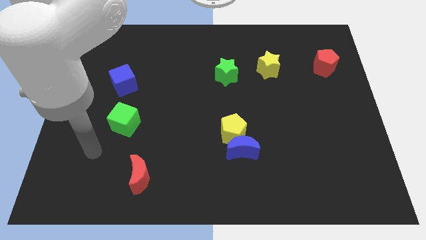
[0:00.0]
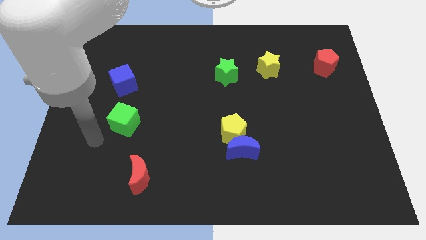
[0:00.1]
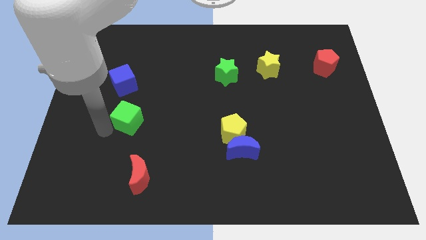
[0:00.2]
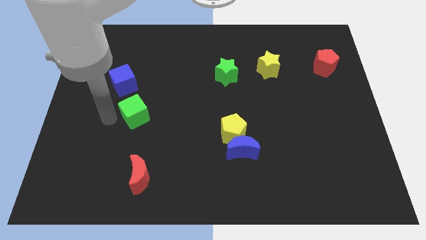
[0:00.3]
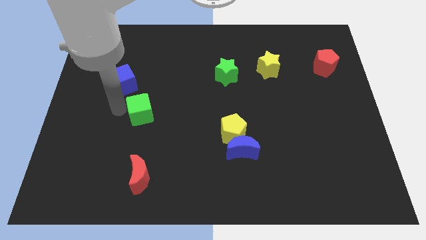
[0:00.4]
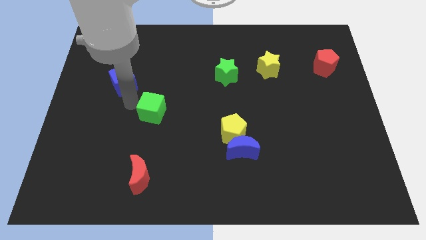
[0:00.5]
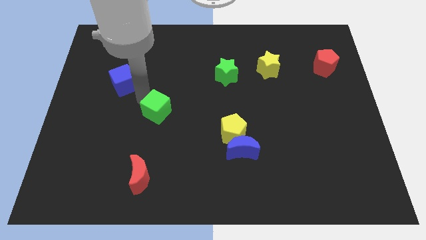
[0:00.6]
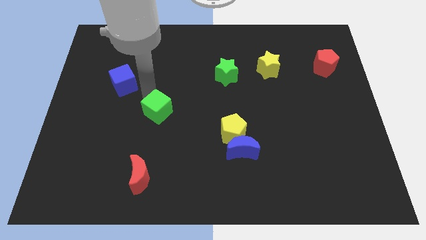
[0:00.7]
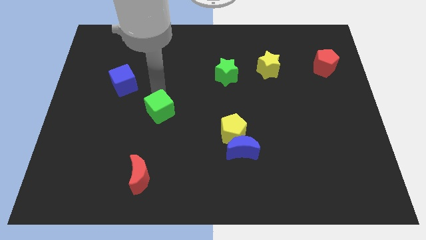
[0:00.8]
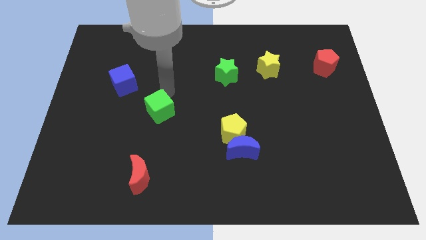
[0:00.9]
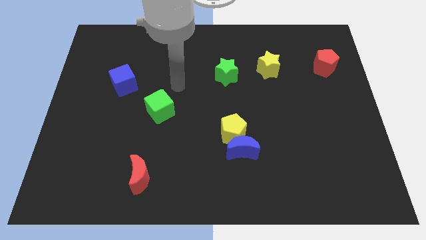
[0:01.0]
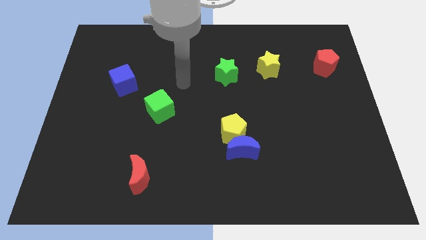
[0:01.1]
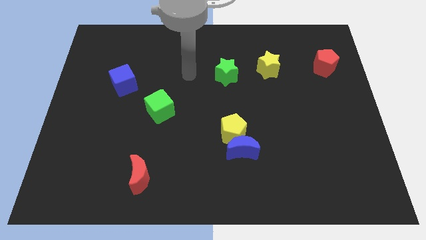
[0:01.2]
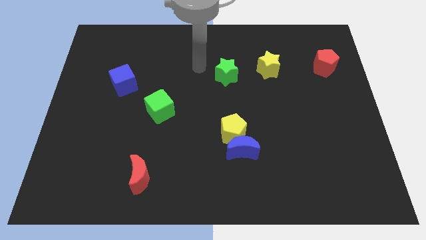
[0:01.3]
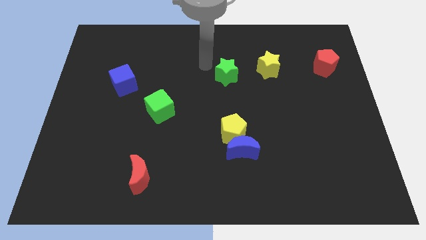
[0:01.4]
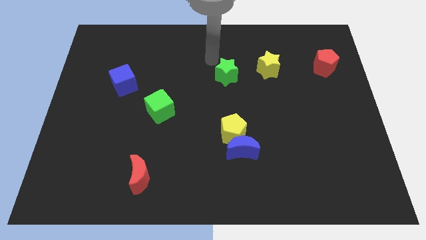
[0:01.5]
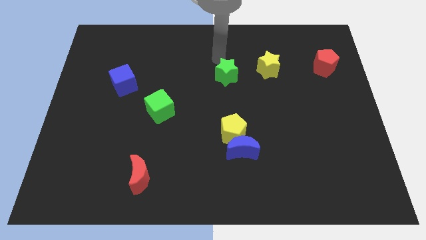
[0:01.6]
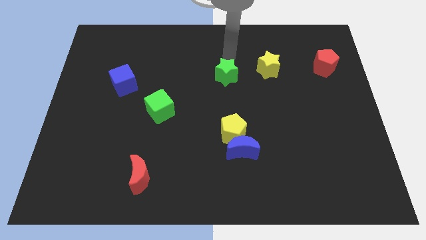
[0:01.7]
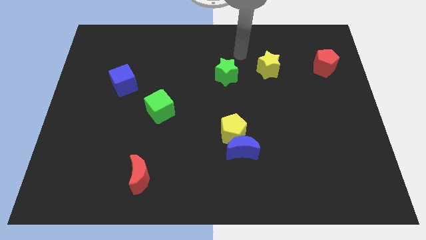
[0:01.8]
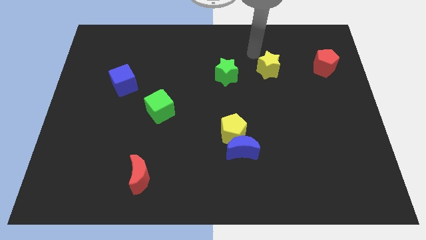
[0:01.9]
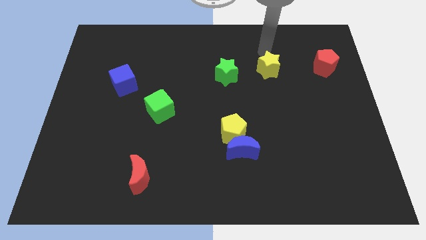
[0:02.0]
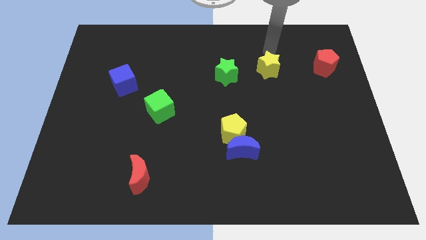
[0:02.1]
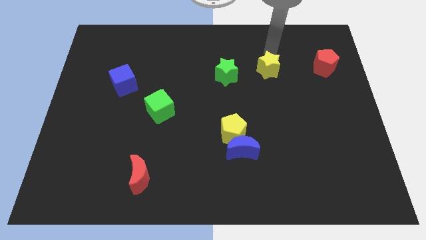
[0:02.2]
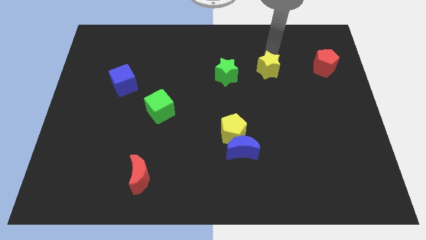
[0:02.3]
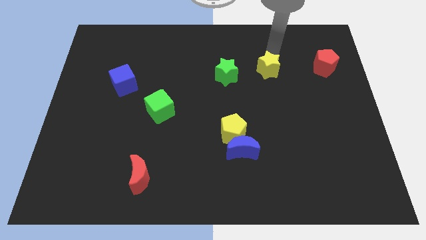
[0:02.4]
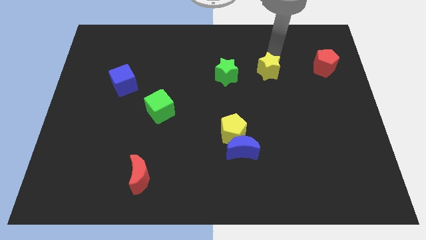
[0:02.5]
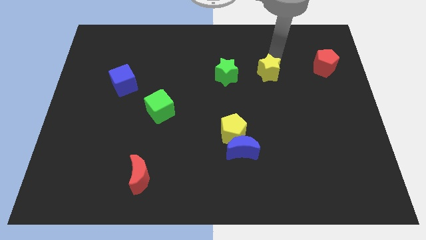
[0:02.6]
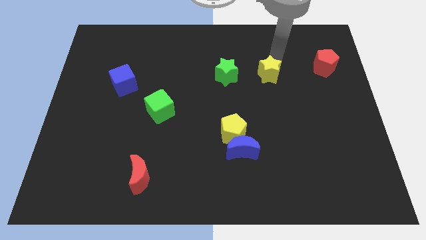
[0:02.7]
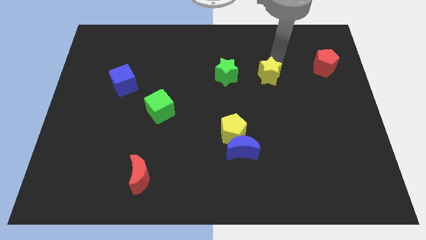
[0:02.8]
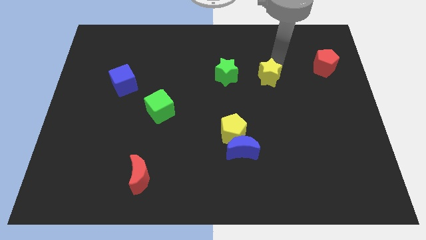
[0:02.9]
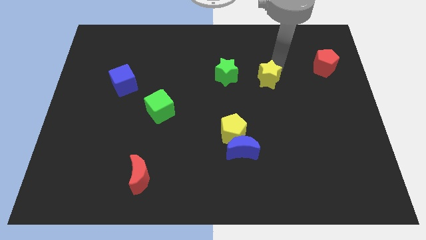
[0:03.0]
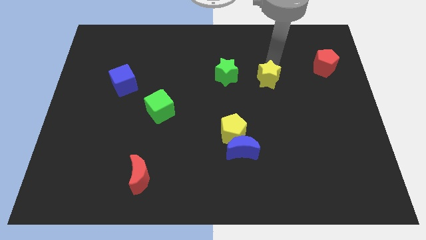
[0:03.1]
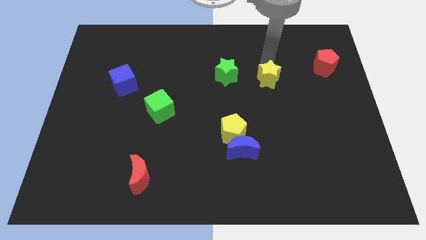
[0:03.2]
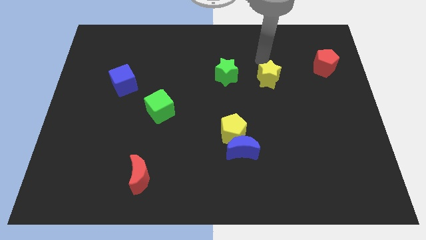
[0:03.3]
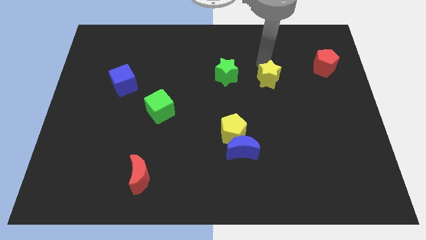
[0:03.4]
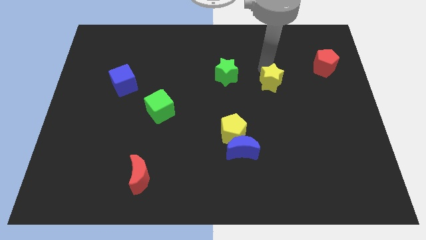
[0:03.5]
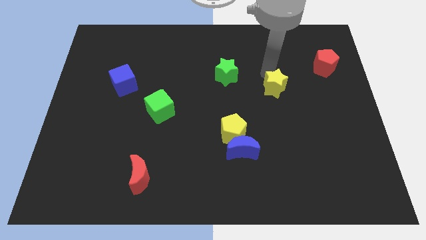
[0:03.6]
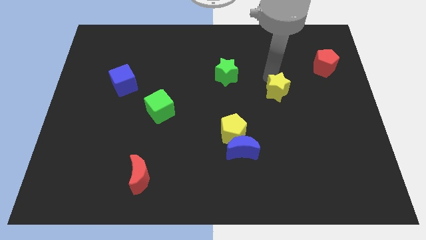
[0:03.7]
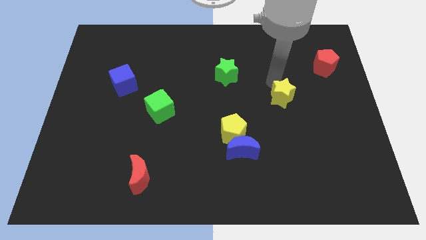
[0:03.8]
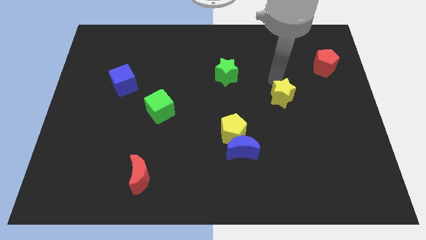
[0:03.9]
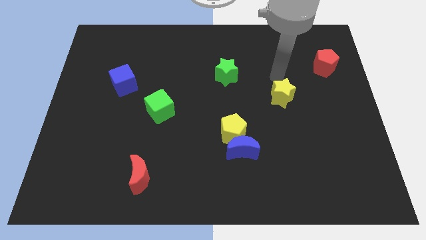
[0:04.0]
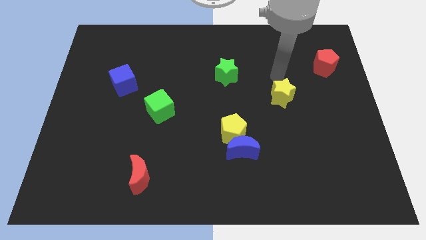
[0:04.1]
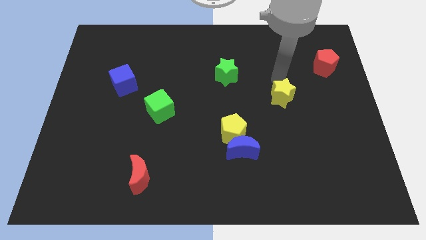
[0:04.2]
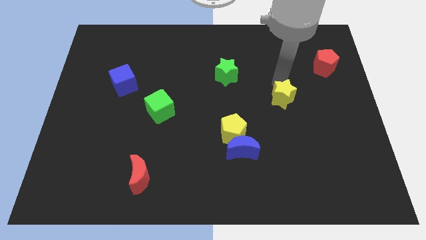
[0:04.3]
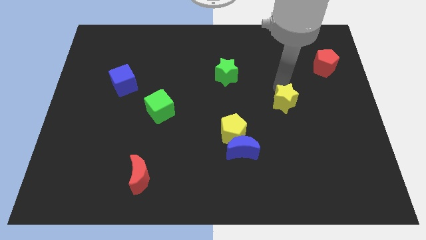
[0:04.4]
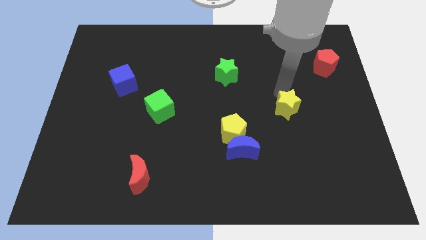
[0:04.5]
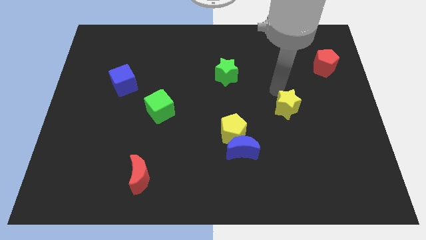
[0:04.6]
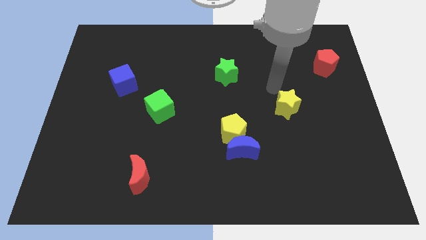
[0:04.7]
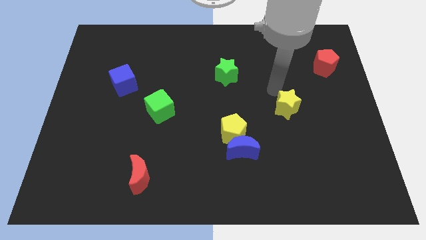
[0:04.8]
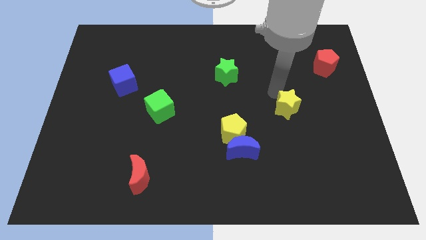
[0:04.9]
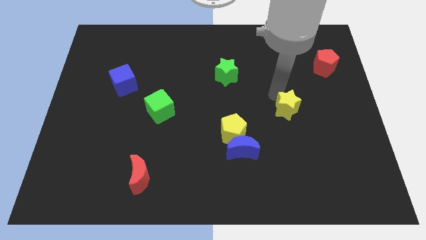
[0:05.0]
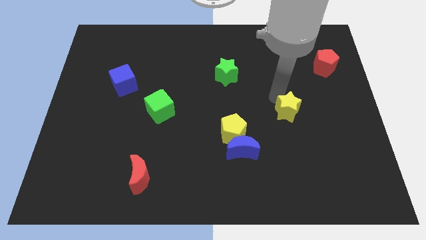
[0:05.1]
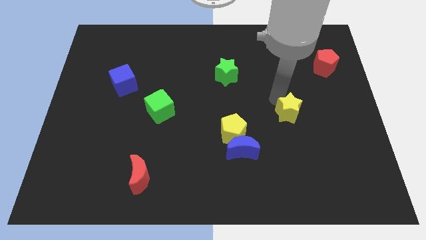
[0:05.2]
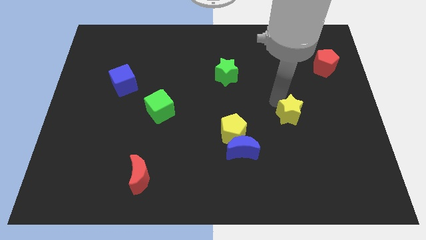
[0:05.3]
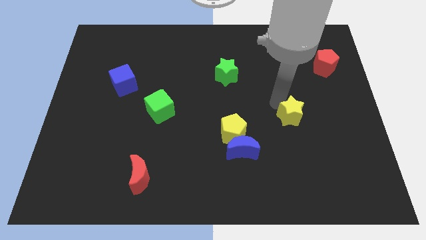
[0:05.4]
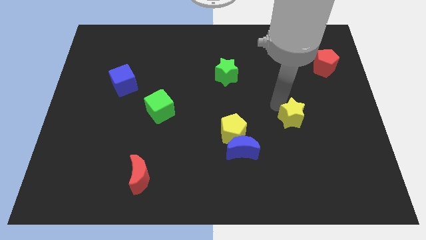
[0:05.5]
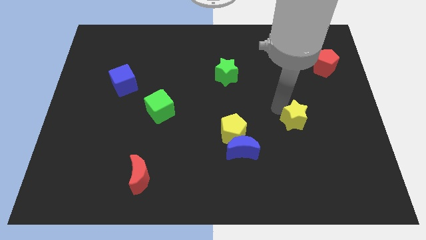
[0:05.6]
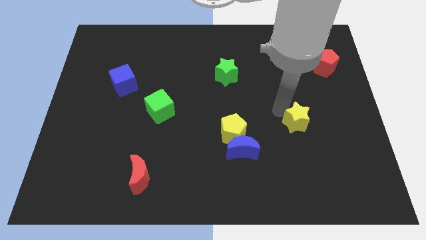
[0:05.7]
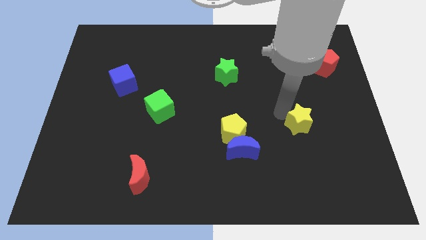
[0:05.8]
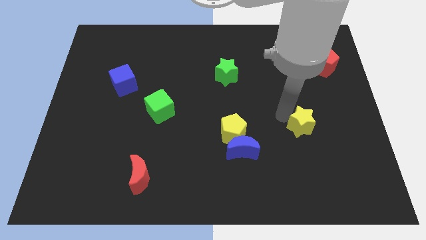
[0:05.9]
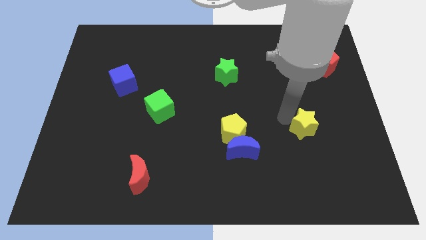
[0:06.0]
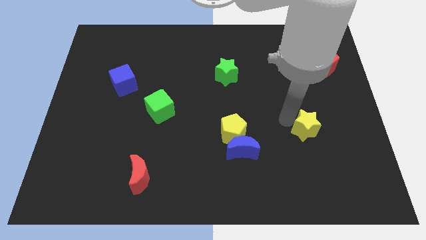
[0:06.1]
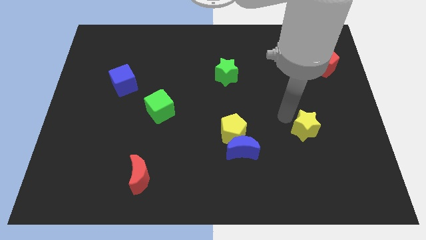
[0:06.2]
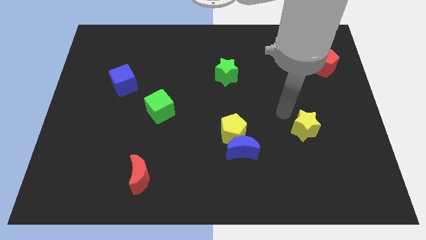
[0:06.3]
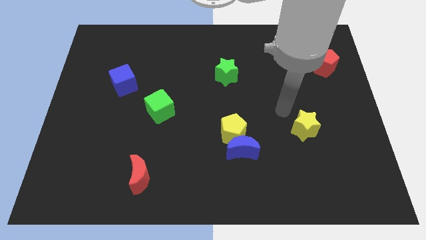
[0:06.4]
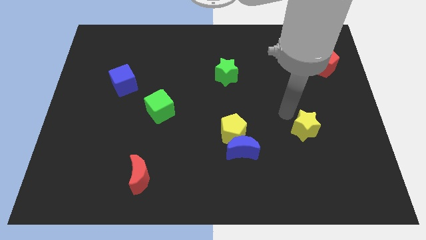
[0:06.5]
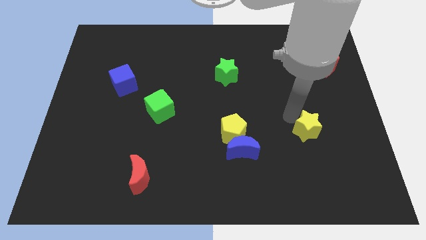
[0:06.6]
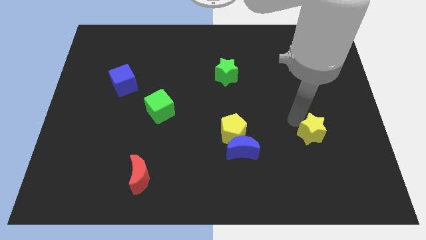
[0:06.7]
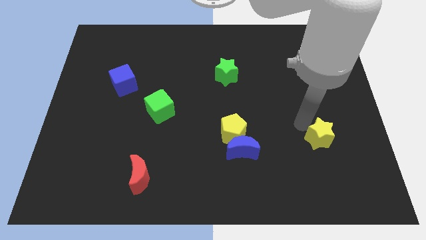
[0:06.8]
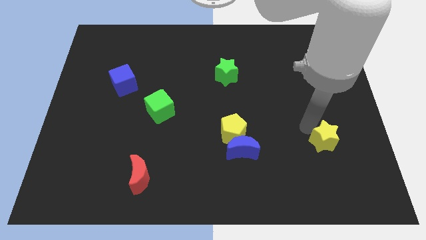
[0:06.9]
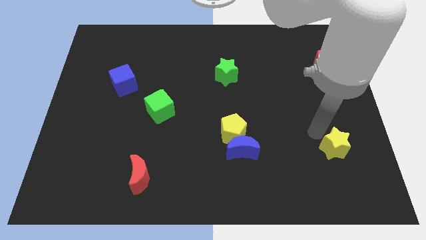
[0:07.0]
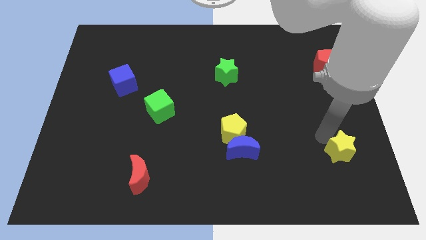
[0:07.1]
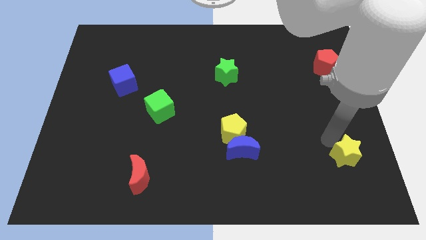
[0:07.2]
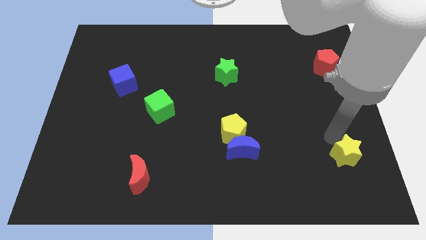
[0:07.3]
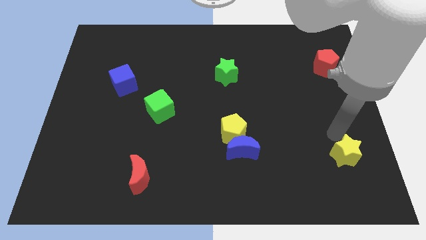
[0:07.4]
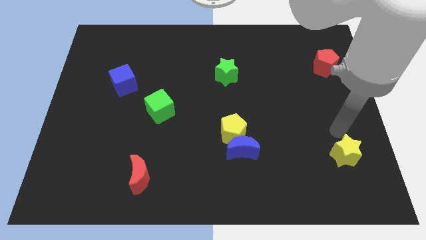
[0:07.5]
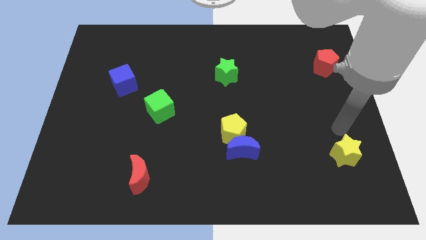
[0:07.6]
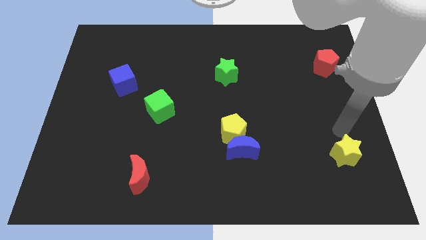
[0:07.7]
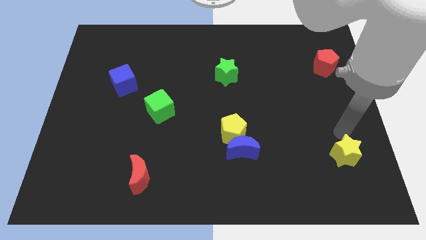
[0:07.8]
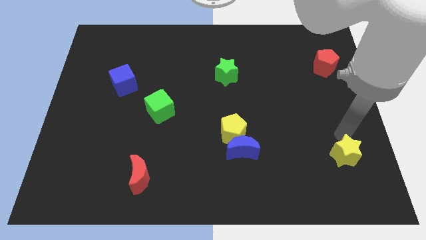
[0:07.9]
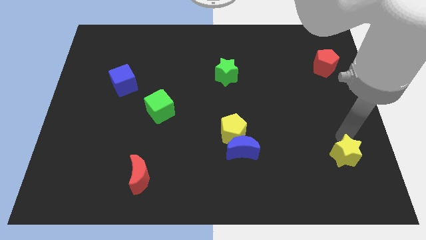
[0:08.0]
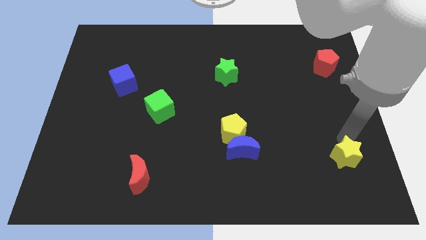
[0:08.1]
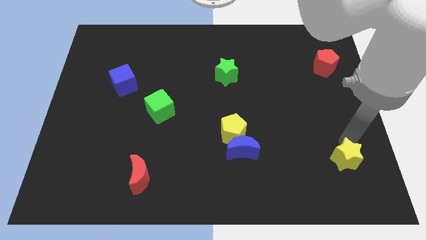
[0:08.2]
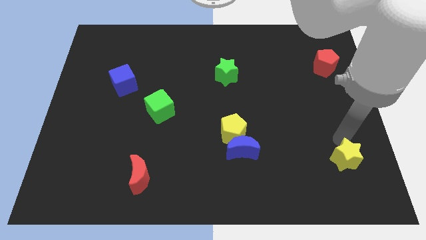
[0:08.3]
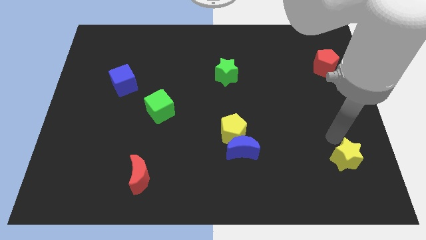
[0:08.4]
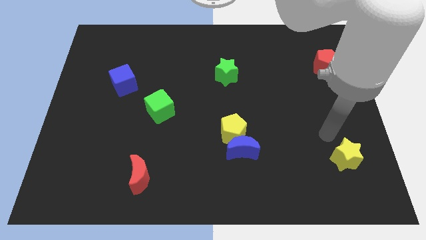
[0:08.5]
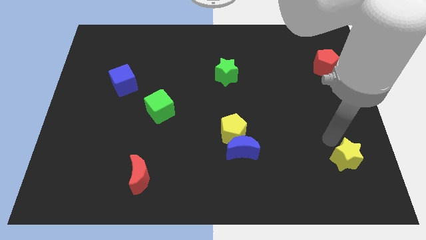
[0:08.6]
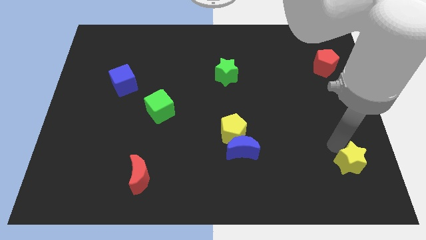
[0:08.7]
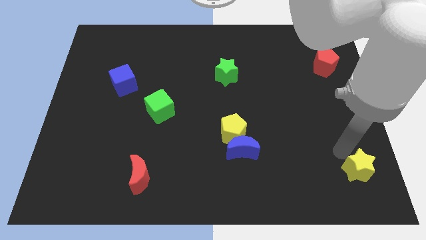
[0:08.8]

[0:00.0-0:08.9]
slide the yellow star to the bottom right
